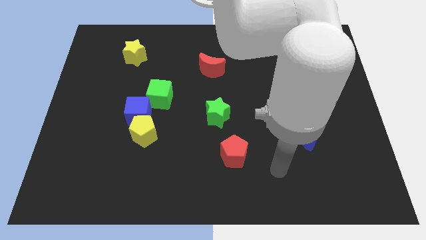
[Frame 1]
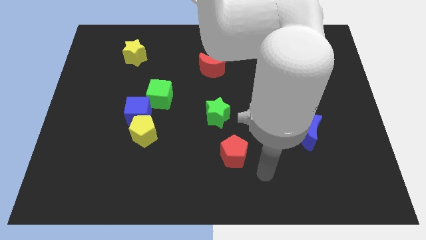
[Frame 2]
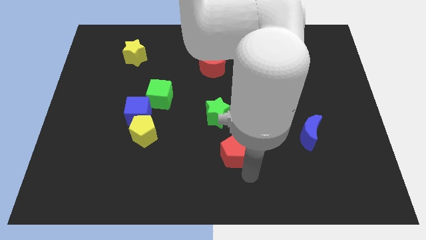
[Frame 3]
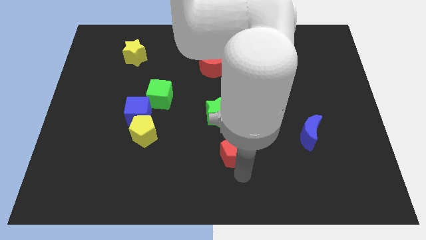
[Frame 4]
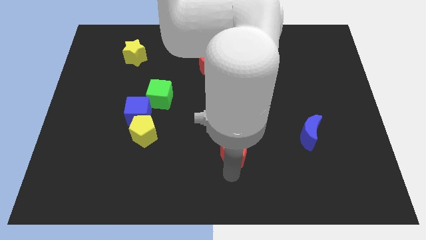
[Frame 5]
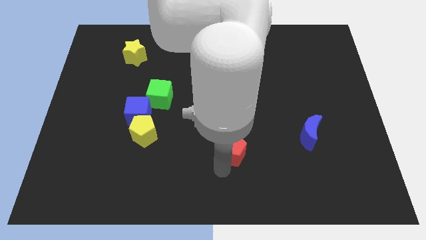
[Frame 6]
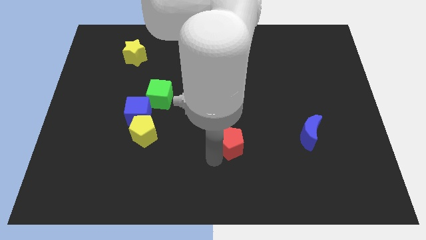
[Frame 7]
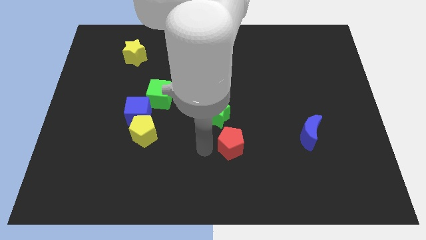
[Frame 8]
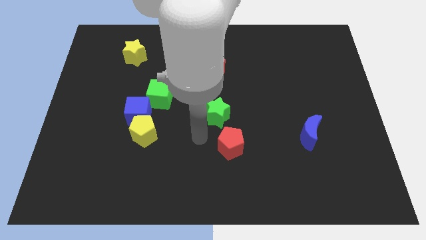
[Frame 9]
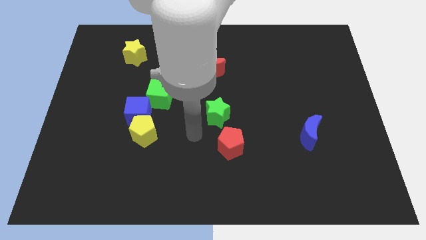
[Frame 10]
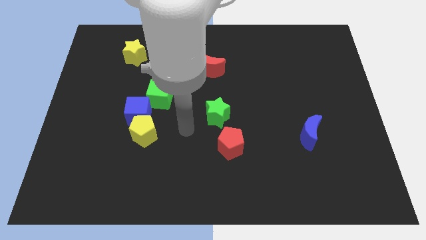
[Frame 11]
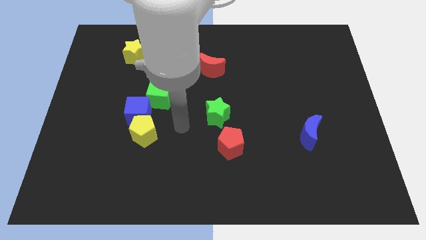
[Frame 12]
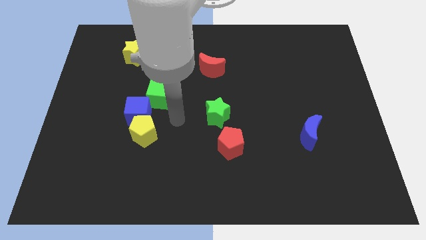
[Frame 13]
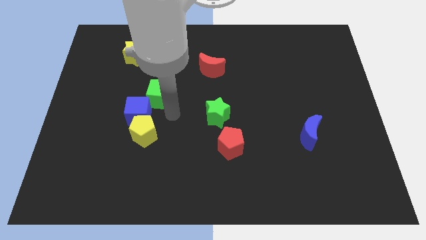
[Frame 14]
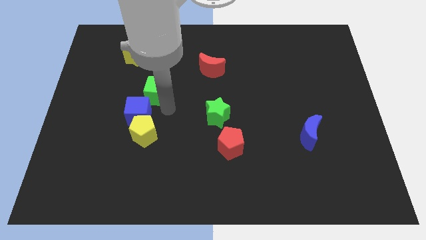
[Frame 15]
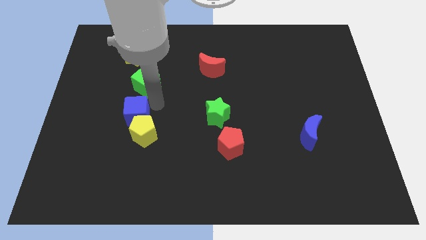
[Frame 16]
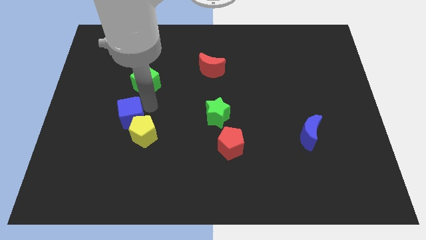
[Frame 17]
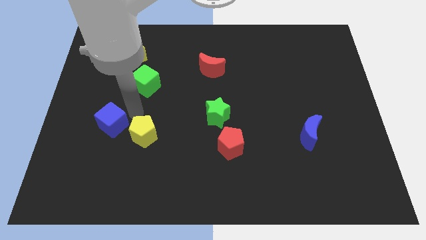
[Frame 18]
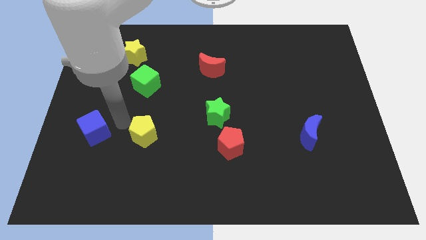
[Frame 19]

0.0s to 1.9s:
separate the yellow pentagon from the blue cube

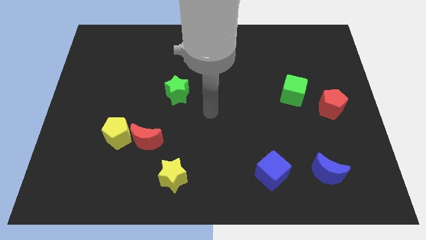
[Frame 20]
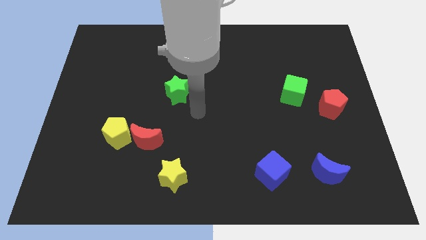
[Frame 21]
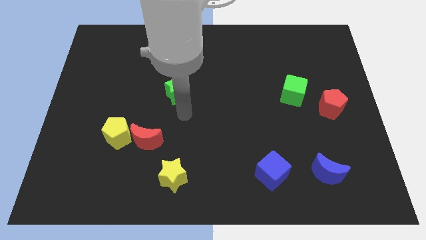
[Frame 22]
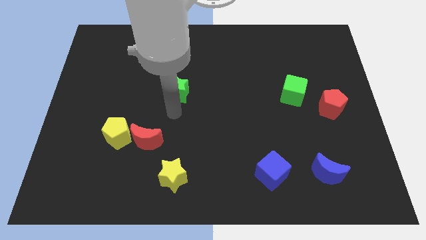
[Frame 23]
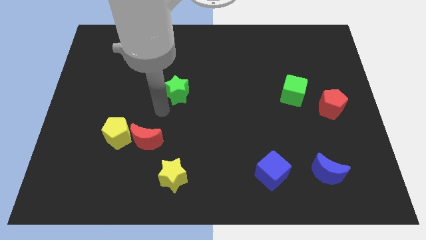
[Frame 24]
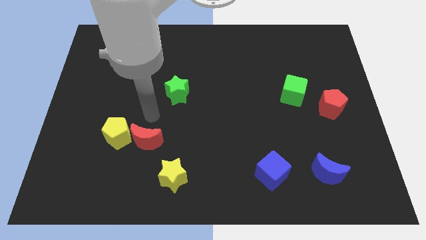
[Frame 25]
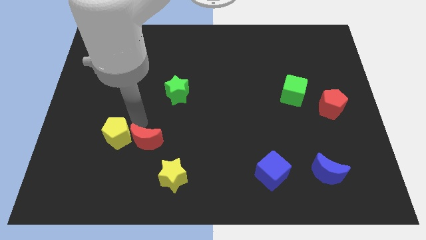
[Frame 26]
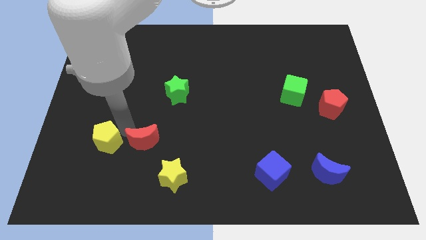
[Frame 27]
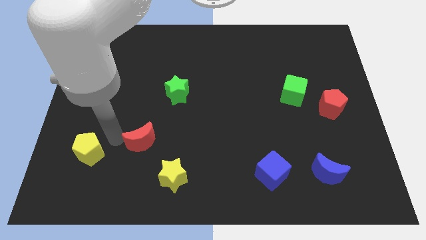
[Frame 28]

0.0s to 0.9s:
pull the red moon apart from the yellow pentagon

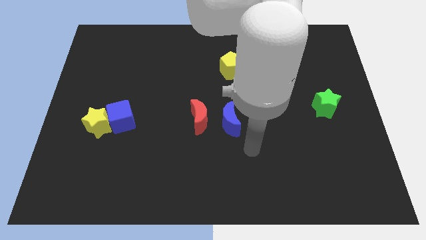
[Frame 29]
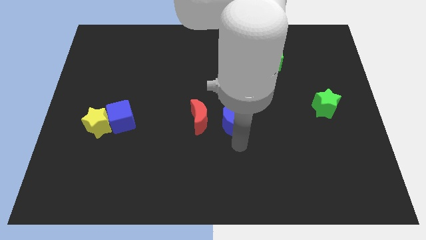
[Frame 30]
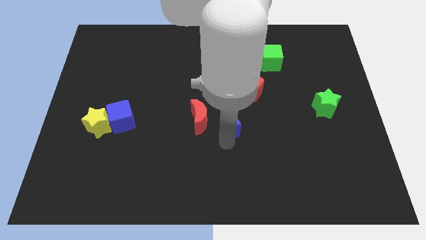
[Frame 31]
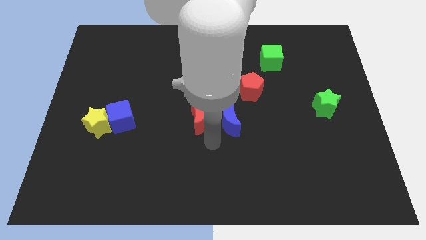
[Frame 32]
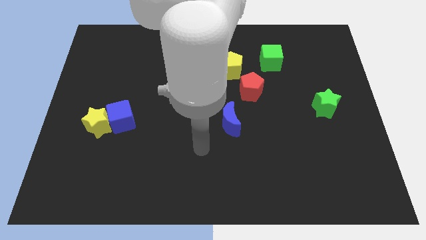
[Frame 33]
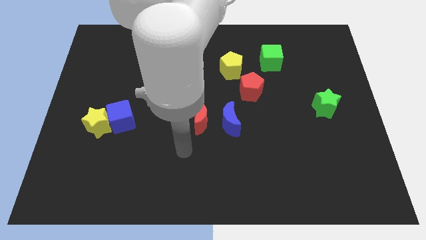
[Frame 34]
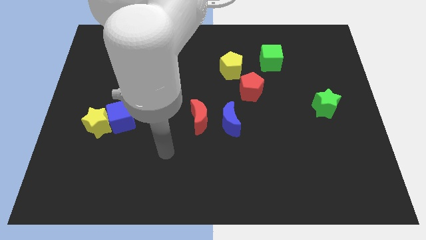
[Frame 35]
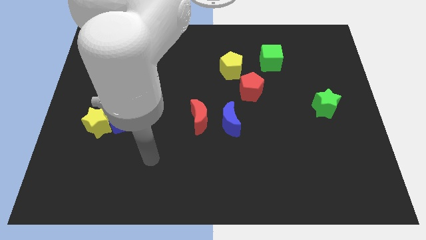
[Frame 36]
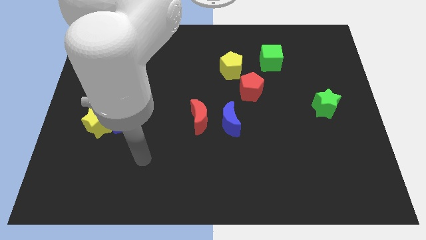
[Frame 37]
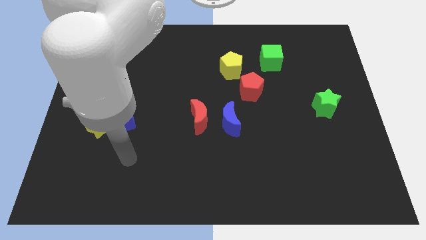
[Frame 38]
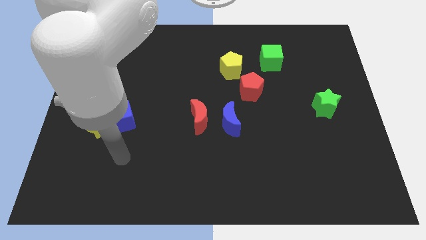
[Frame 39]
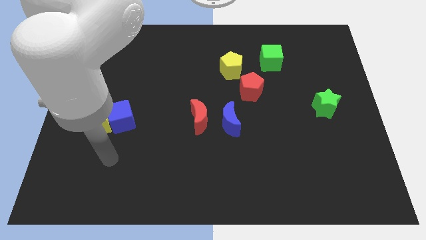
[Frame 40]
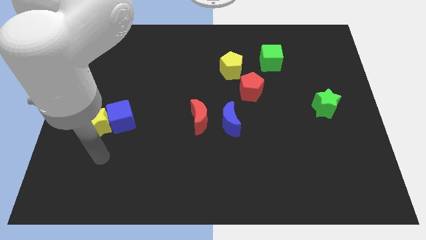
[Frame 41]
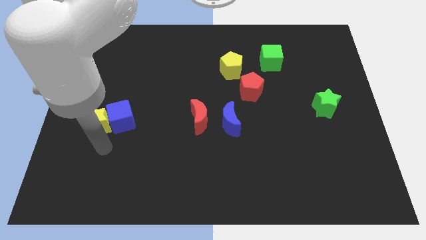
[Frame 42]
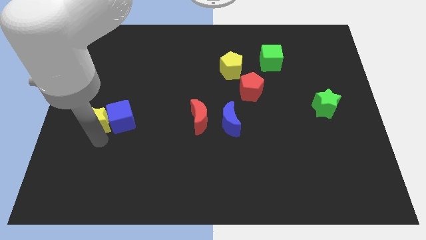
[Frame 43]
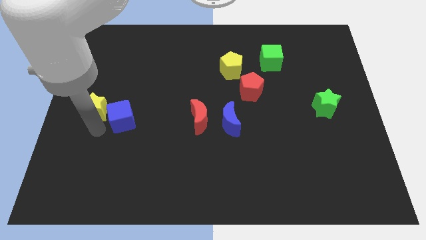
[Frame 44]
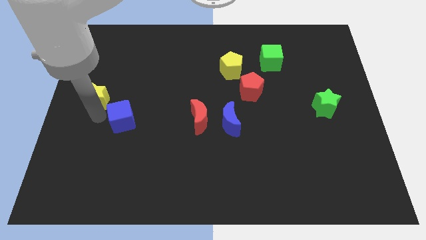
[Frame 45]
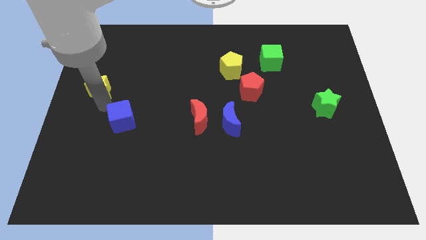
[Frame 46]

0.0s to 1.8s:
separate the blue cube from the yellow star

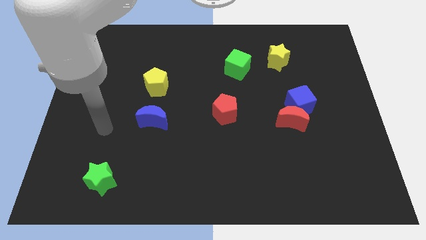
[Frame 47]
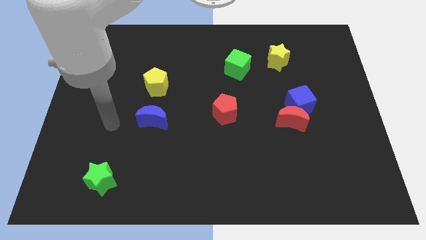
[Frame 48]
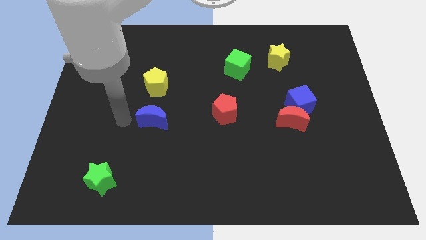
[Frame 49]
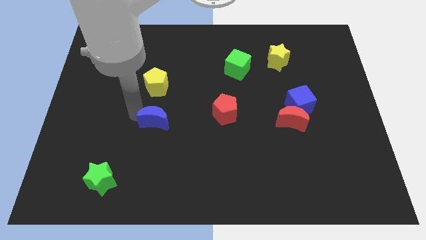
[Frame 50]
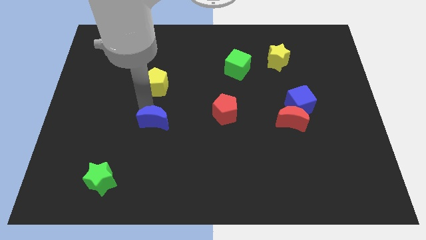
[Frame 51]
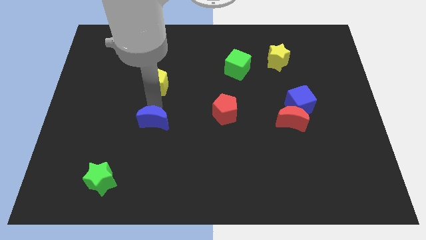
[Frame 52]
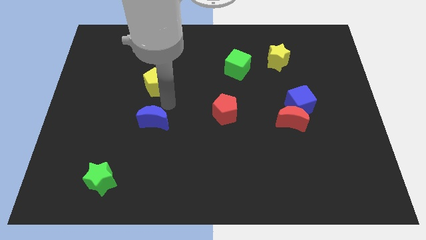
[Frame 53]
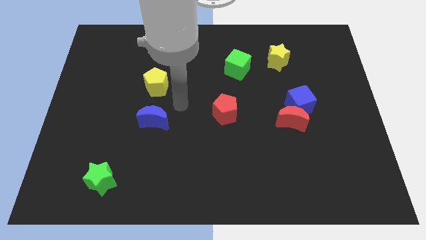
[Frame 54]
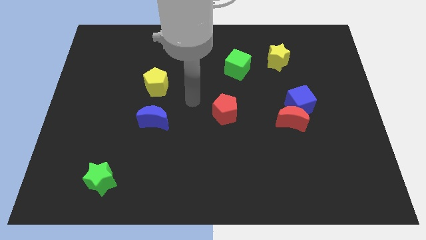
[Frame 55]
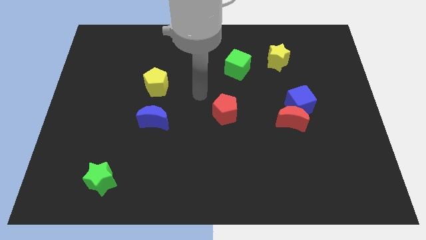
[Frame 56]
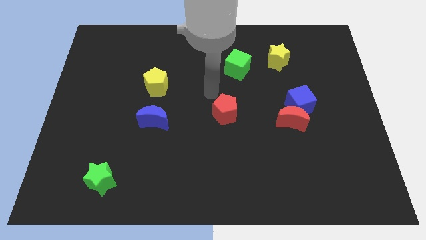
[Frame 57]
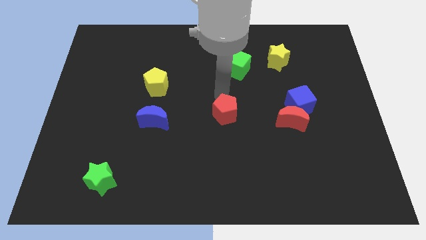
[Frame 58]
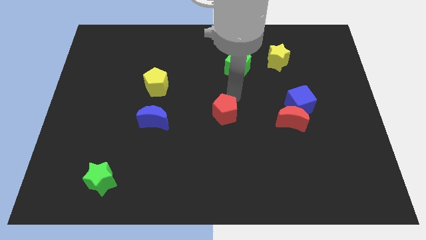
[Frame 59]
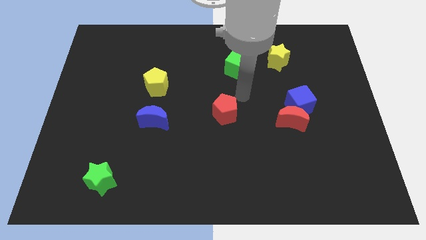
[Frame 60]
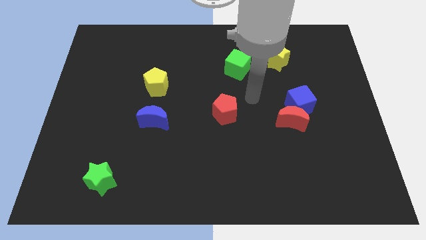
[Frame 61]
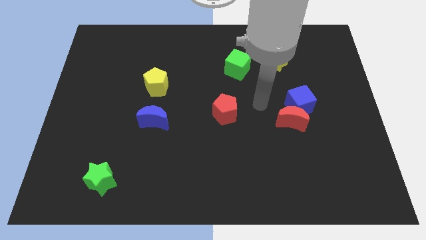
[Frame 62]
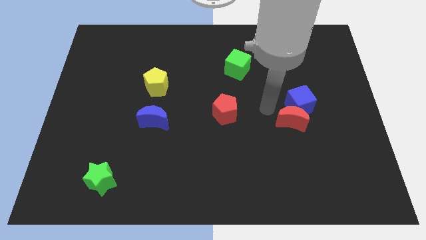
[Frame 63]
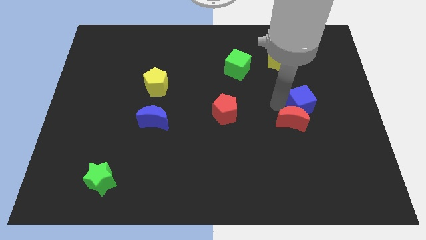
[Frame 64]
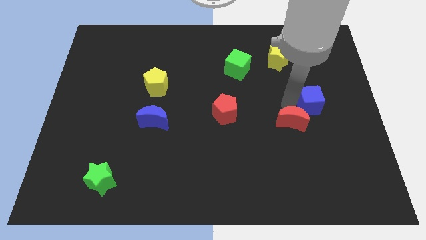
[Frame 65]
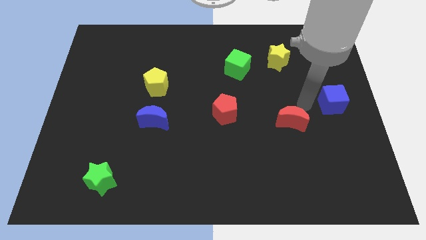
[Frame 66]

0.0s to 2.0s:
move the red moon away from the blue cube

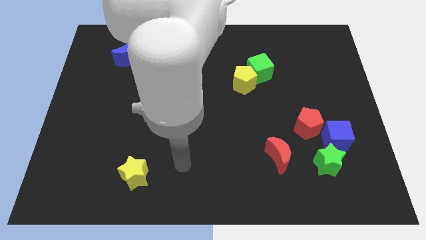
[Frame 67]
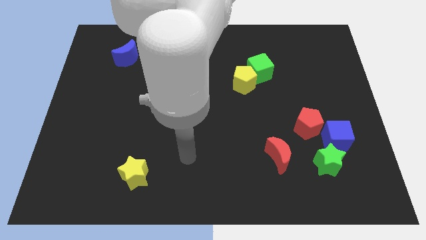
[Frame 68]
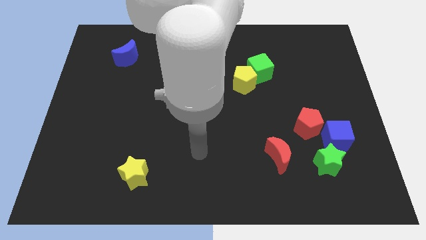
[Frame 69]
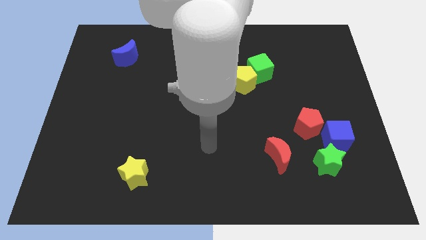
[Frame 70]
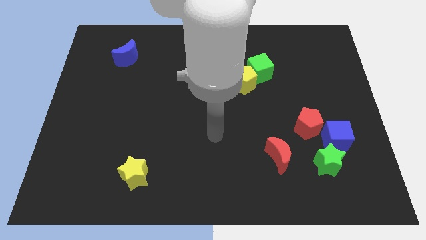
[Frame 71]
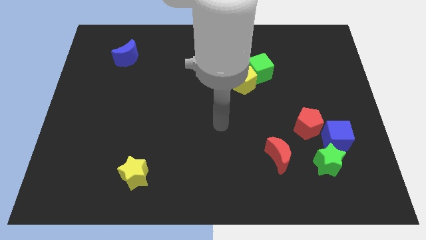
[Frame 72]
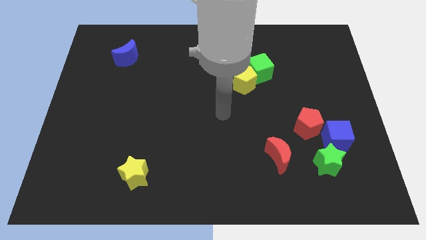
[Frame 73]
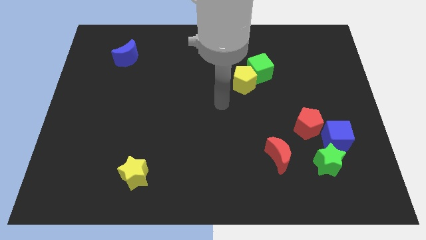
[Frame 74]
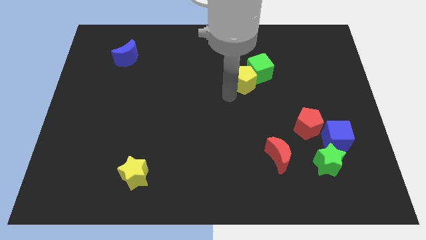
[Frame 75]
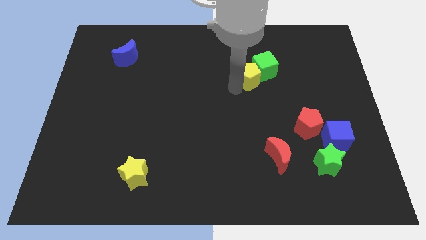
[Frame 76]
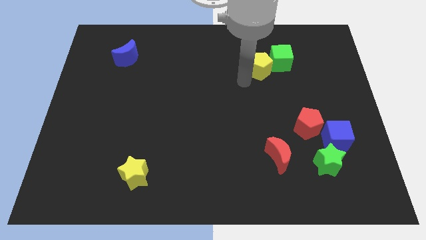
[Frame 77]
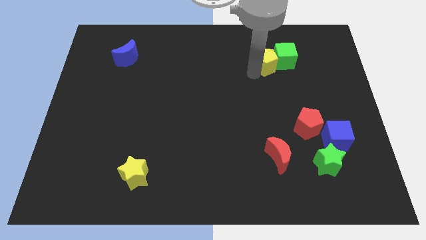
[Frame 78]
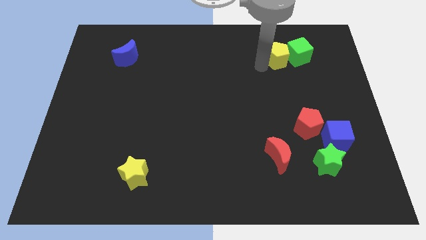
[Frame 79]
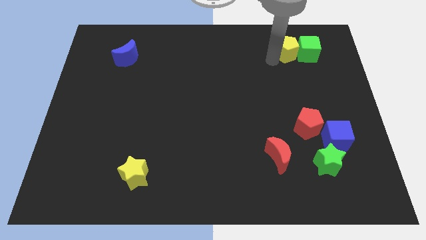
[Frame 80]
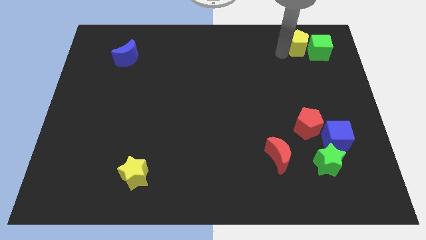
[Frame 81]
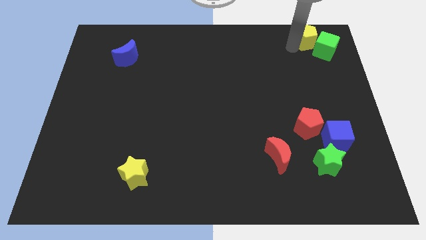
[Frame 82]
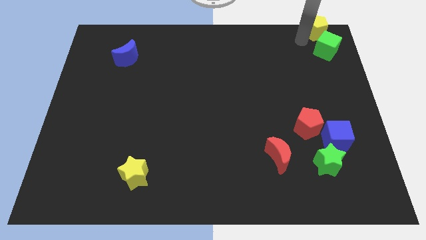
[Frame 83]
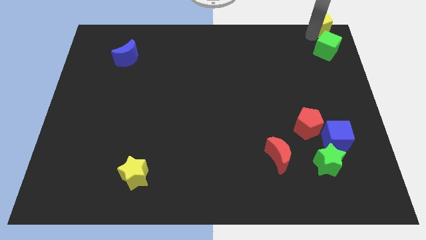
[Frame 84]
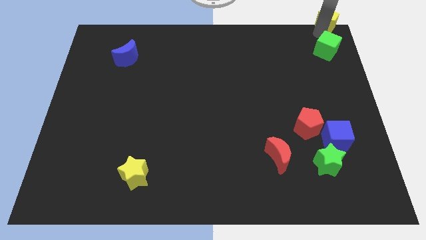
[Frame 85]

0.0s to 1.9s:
separate the green cube from the yellow pentagon

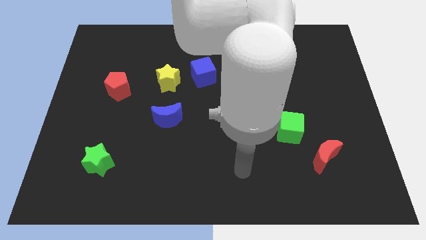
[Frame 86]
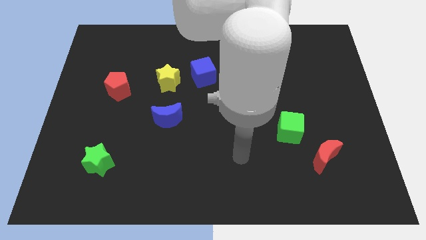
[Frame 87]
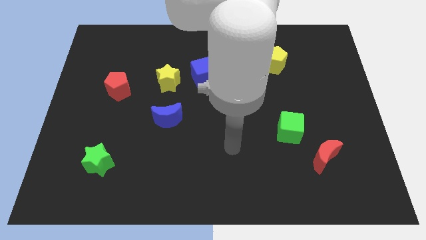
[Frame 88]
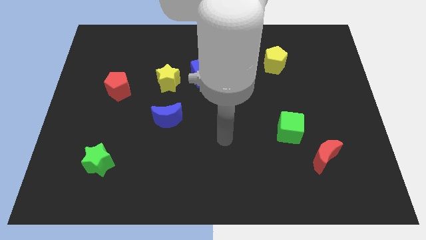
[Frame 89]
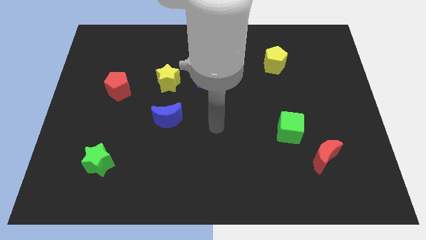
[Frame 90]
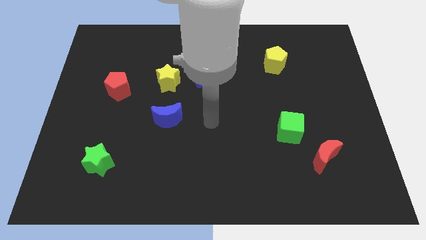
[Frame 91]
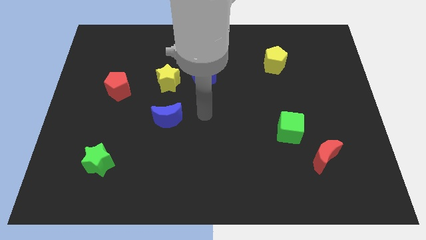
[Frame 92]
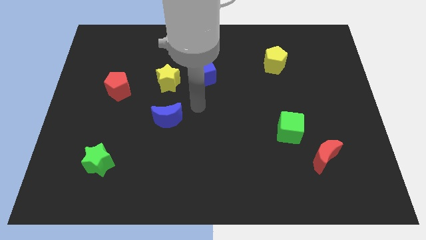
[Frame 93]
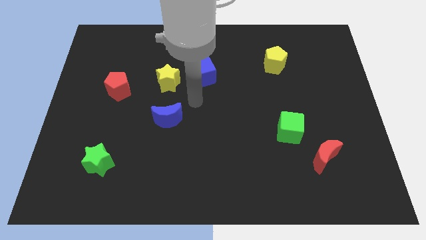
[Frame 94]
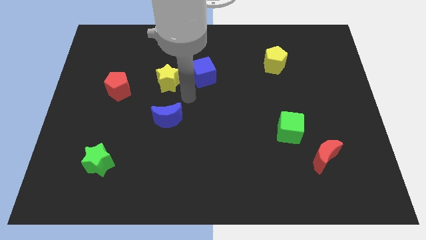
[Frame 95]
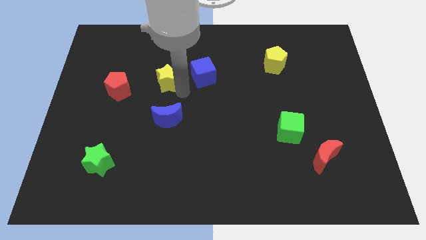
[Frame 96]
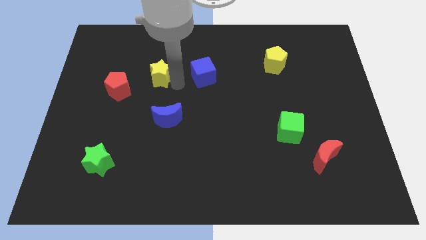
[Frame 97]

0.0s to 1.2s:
move the blue cube away from the yellow star
